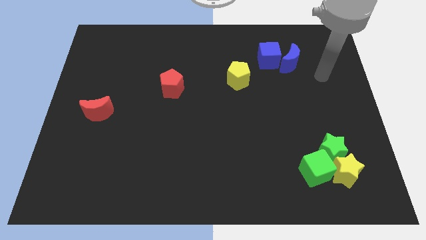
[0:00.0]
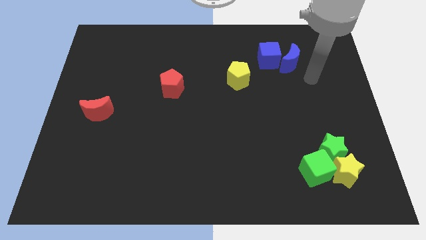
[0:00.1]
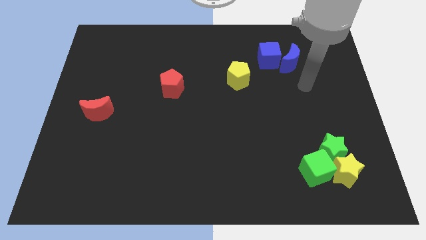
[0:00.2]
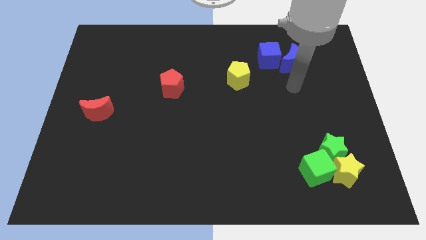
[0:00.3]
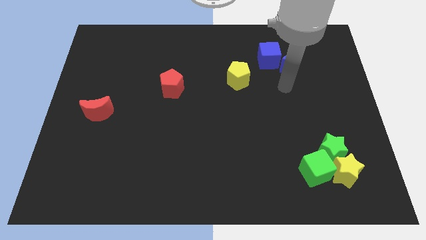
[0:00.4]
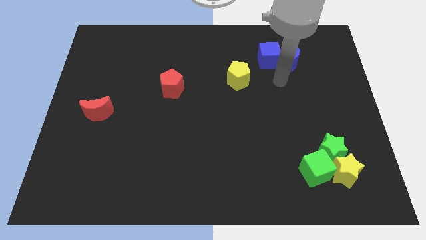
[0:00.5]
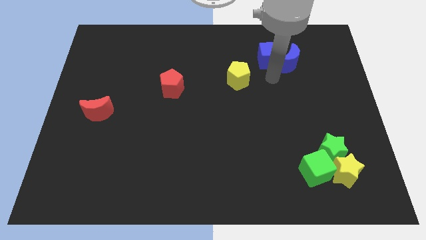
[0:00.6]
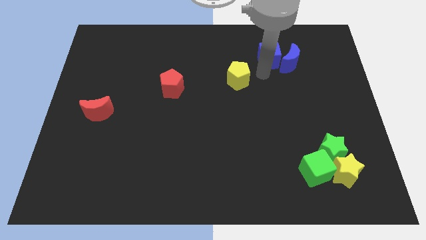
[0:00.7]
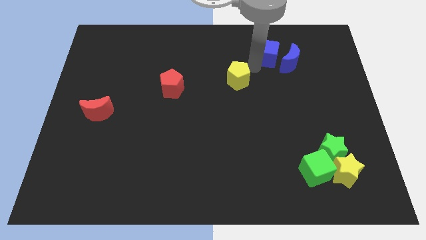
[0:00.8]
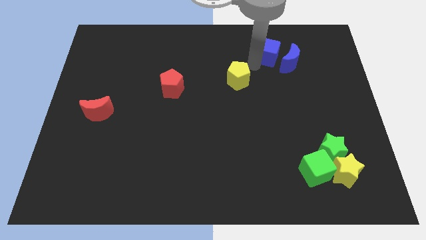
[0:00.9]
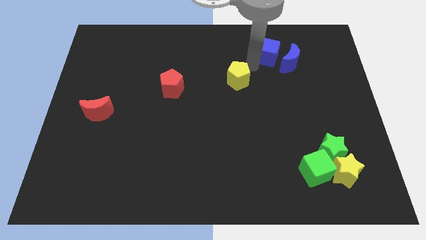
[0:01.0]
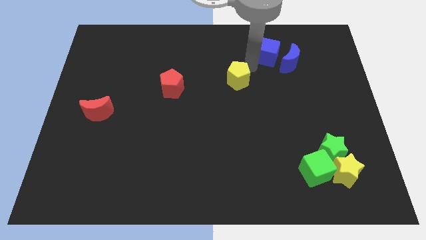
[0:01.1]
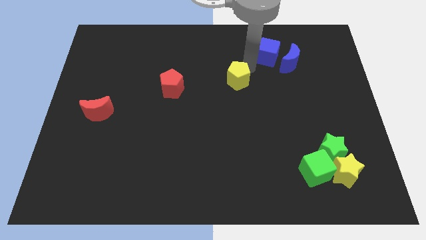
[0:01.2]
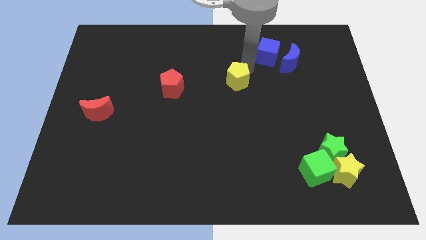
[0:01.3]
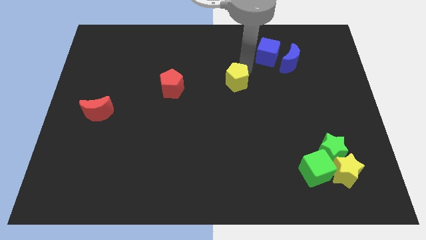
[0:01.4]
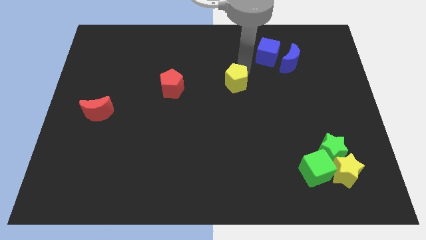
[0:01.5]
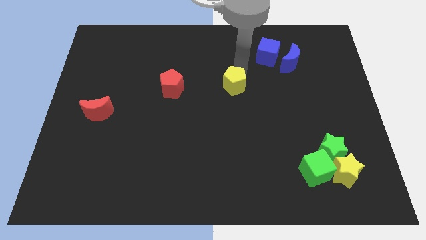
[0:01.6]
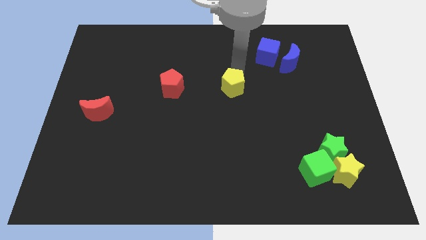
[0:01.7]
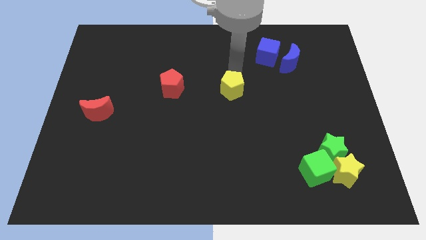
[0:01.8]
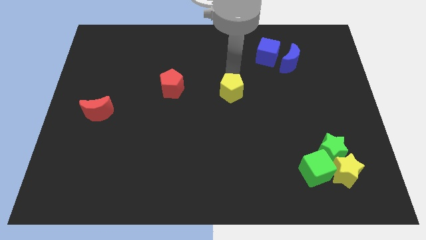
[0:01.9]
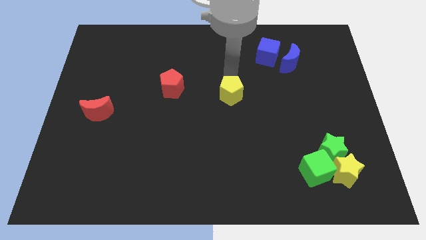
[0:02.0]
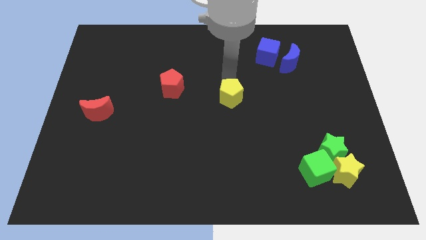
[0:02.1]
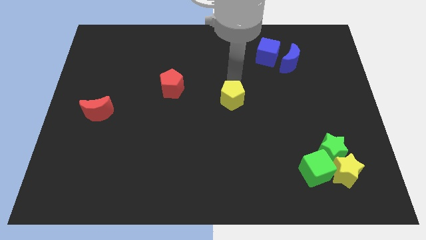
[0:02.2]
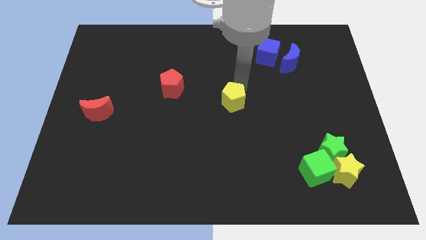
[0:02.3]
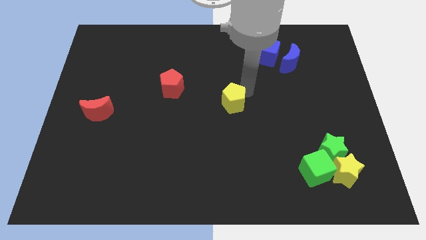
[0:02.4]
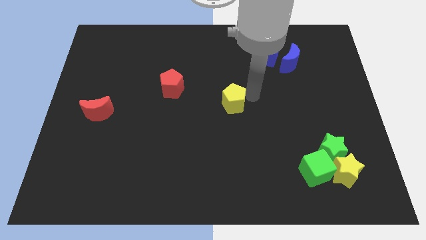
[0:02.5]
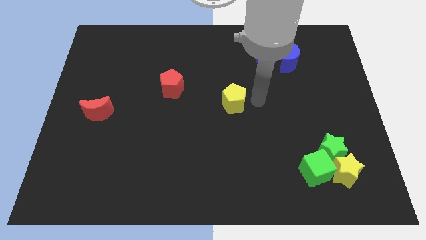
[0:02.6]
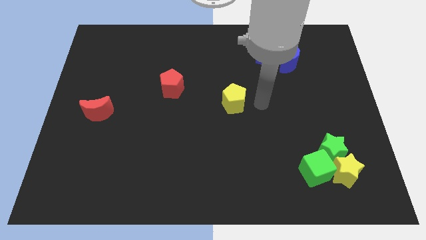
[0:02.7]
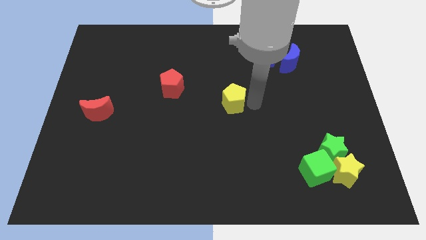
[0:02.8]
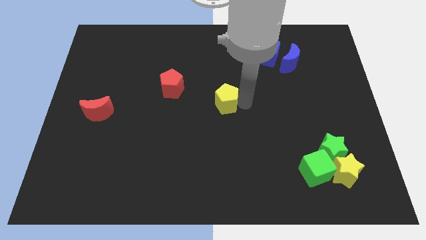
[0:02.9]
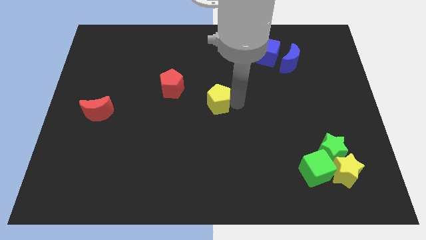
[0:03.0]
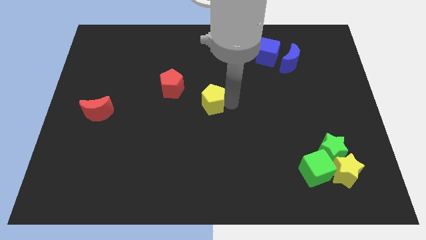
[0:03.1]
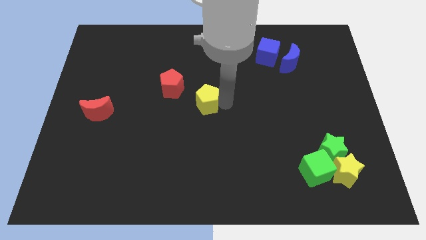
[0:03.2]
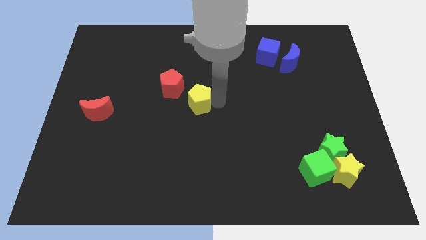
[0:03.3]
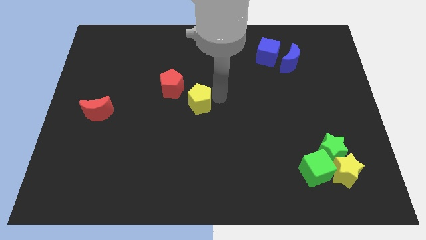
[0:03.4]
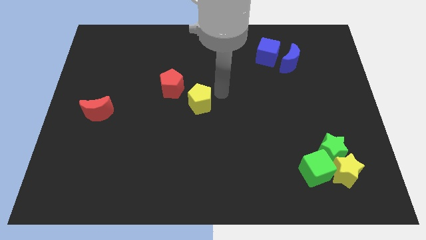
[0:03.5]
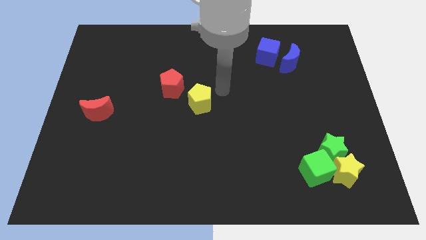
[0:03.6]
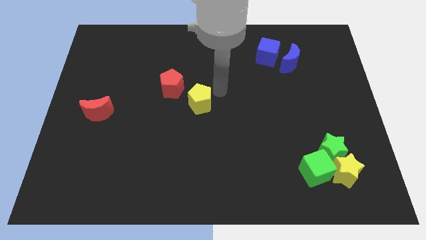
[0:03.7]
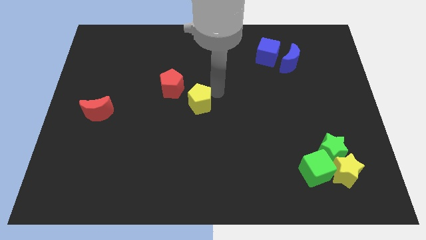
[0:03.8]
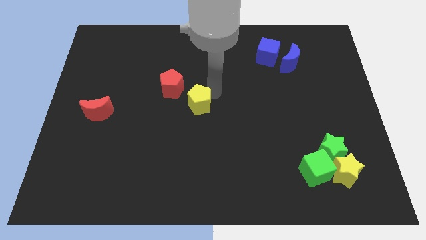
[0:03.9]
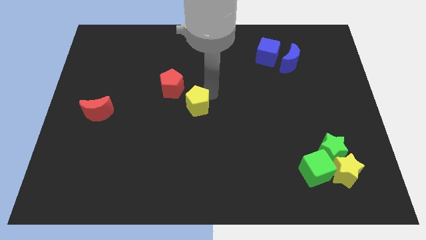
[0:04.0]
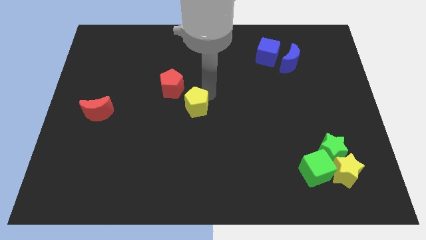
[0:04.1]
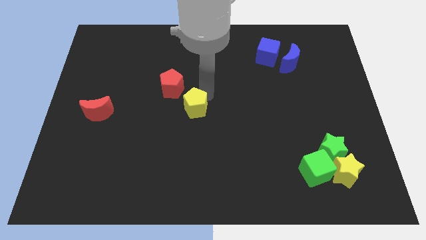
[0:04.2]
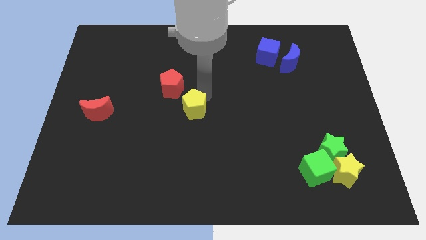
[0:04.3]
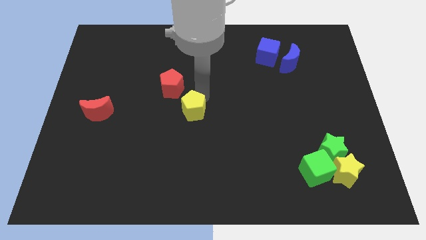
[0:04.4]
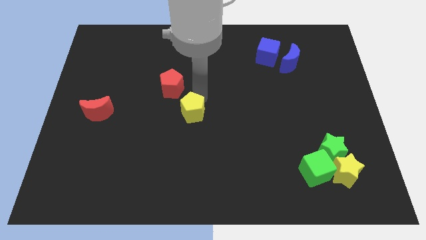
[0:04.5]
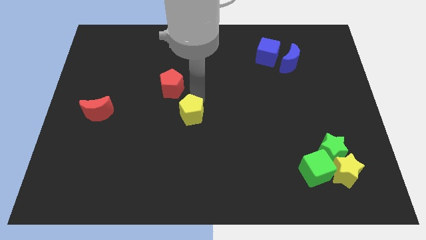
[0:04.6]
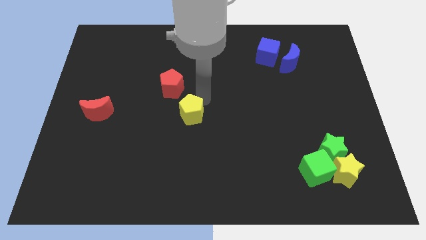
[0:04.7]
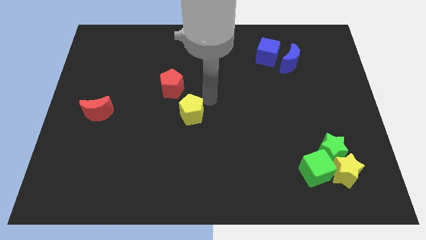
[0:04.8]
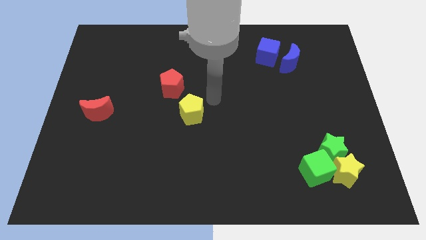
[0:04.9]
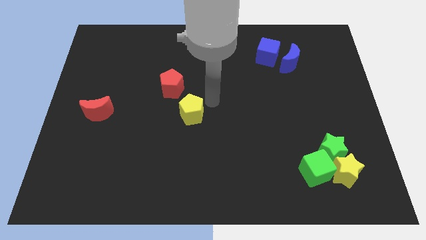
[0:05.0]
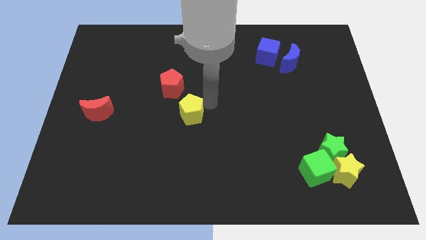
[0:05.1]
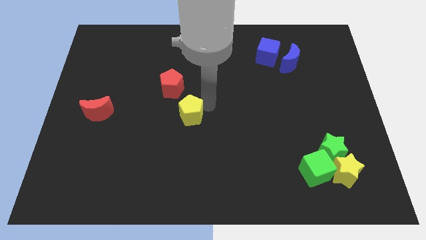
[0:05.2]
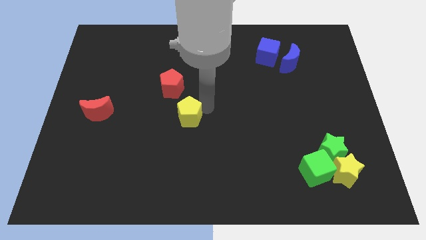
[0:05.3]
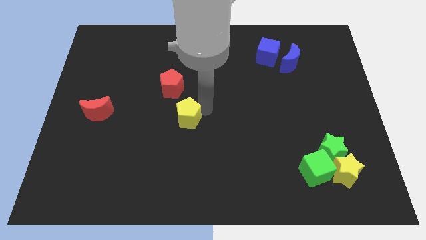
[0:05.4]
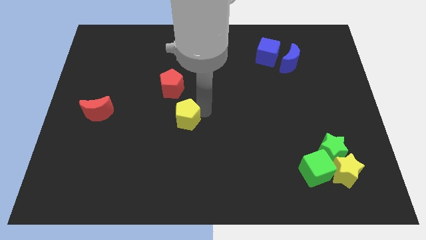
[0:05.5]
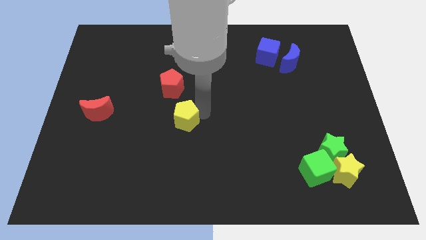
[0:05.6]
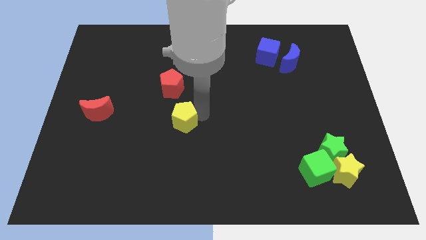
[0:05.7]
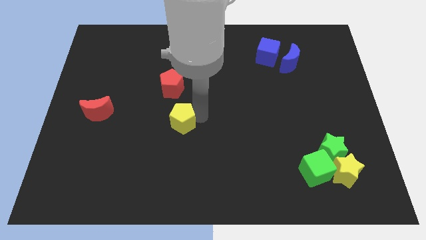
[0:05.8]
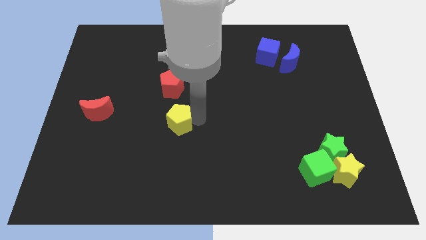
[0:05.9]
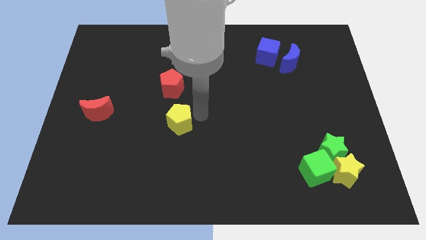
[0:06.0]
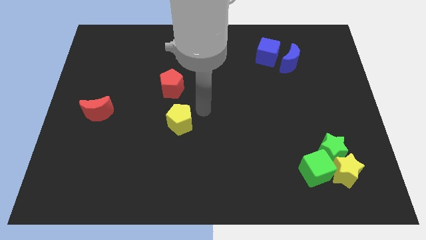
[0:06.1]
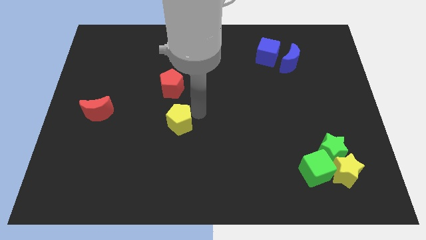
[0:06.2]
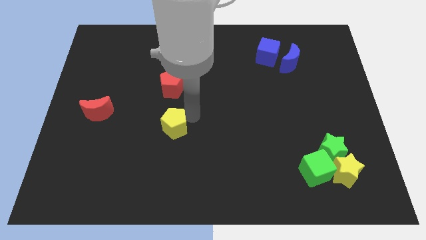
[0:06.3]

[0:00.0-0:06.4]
push the yellow pentagon downwards and left diagonally

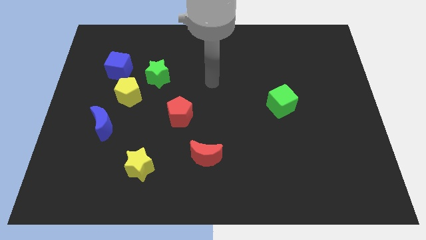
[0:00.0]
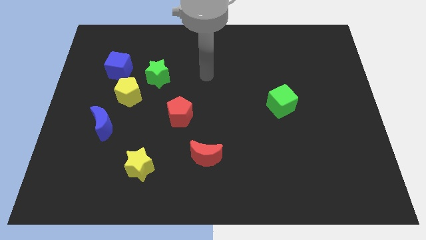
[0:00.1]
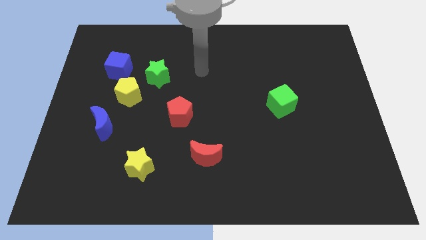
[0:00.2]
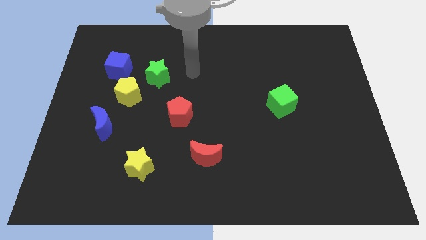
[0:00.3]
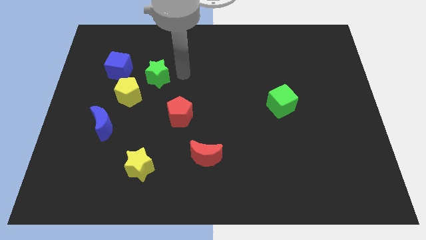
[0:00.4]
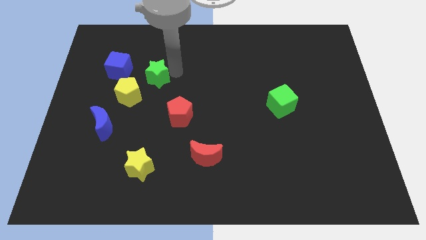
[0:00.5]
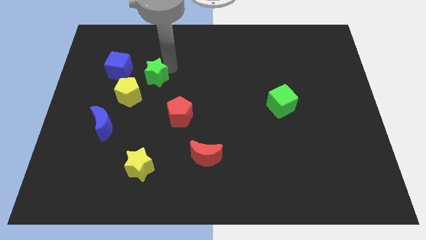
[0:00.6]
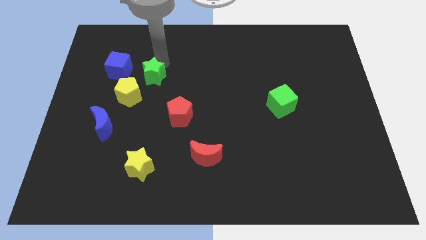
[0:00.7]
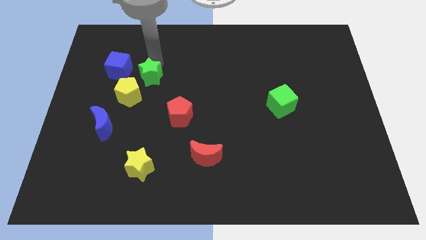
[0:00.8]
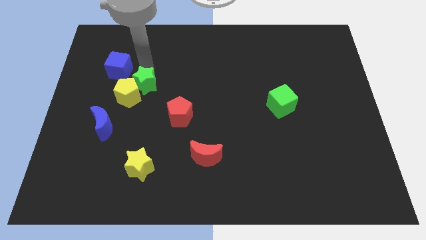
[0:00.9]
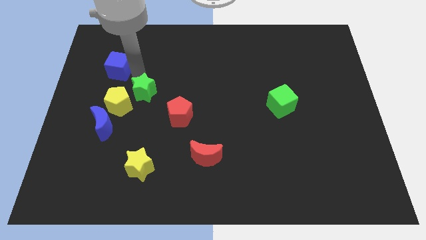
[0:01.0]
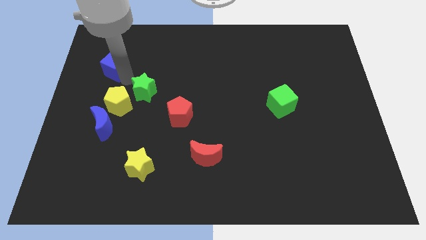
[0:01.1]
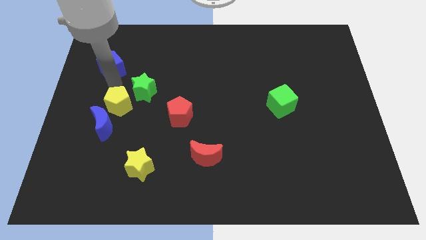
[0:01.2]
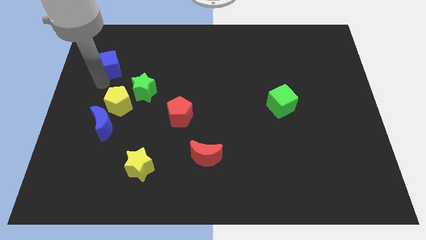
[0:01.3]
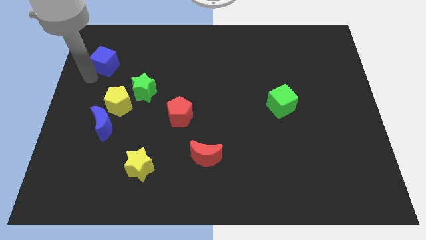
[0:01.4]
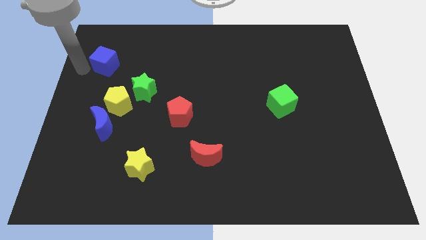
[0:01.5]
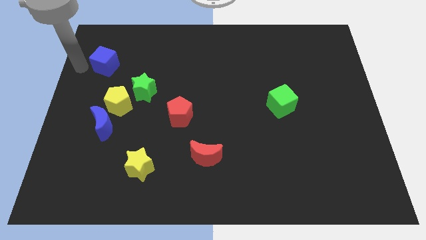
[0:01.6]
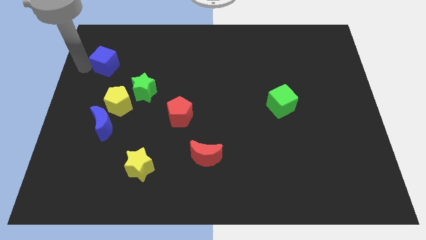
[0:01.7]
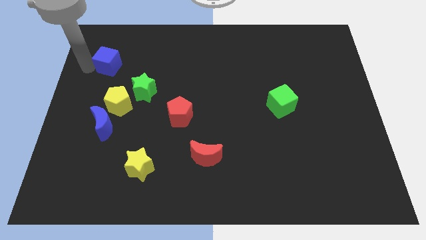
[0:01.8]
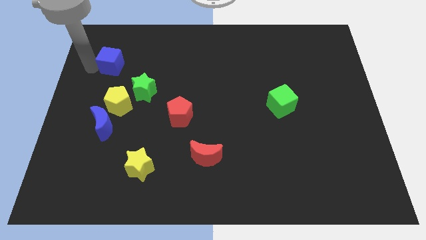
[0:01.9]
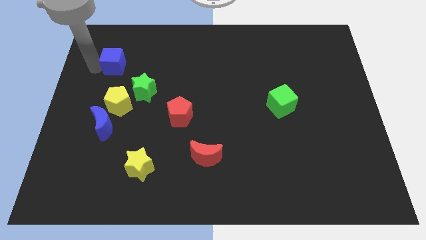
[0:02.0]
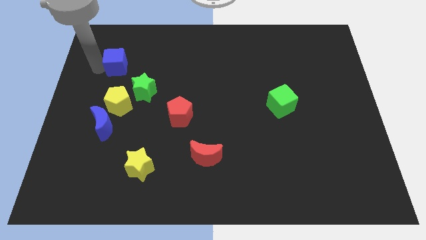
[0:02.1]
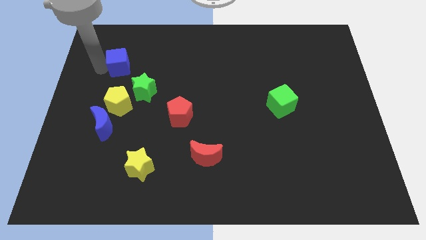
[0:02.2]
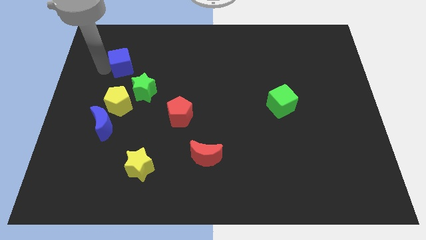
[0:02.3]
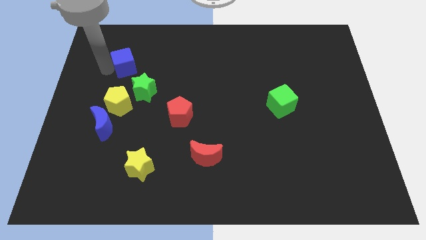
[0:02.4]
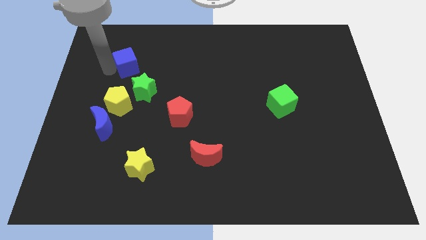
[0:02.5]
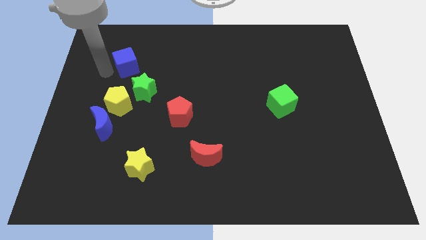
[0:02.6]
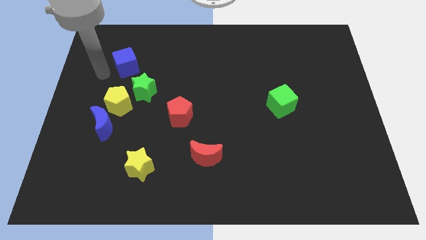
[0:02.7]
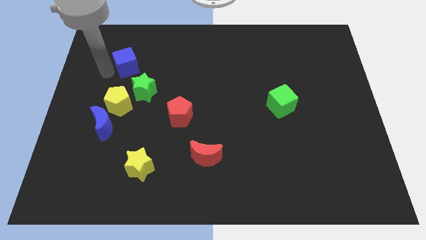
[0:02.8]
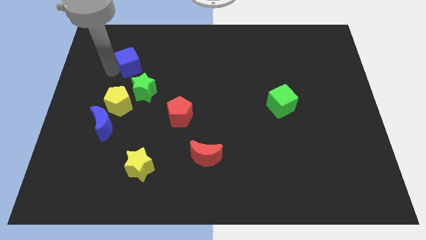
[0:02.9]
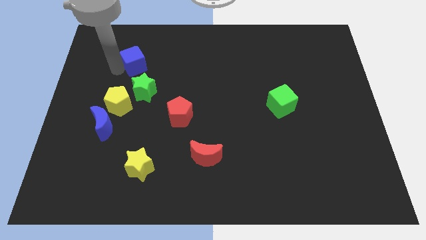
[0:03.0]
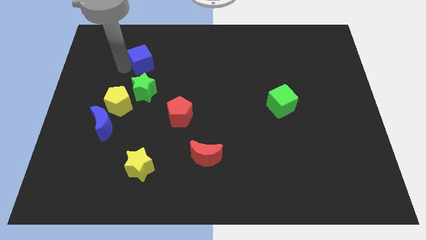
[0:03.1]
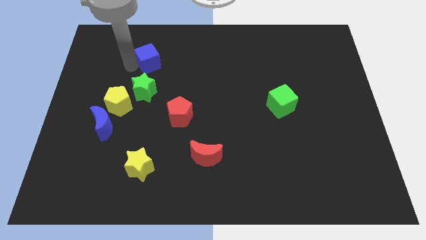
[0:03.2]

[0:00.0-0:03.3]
move the blue cube right slightly
